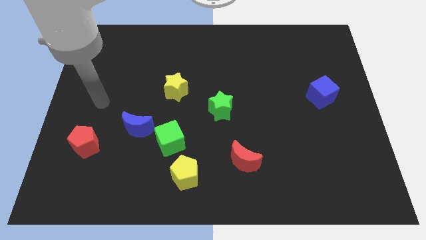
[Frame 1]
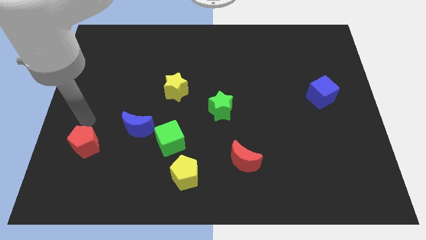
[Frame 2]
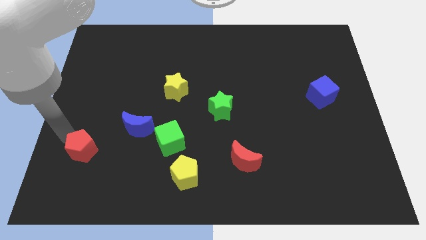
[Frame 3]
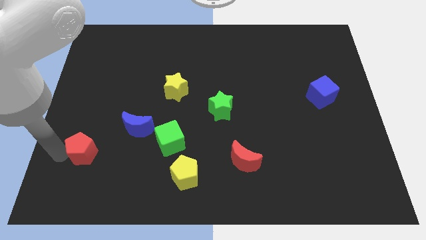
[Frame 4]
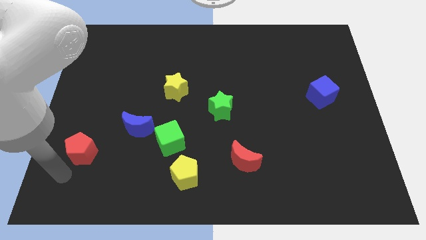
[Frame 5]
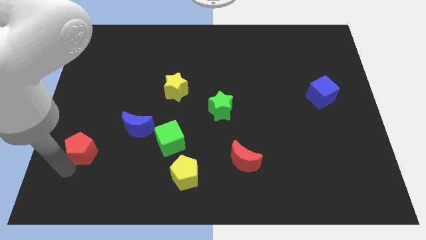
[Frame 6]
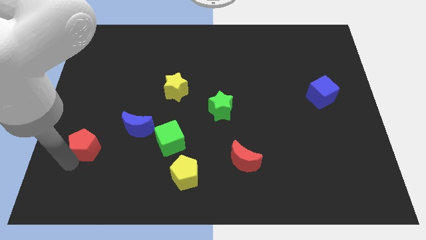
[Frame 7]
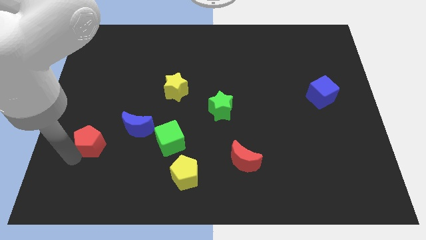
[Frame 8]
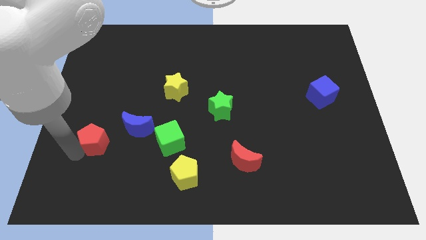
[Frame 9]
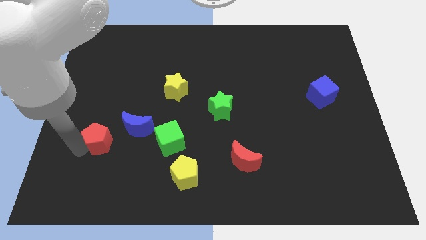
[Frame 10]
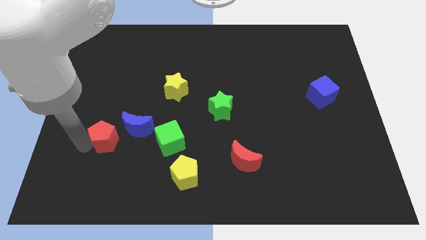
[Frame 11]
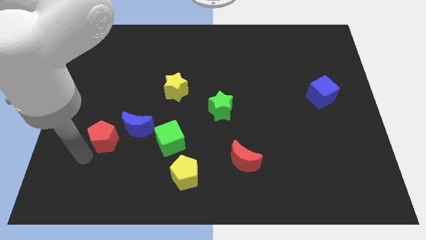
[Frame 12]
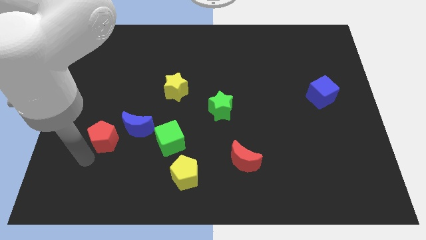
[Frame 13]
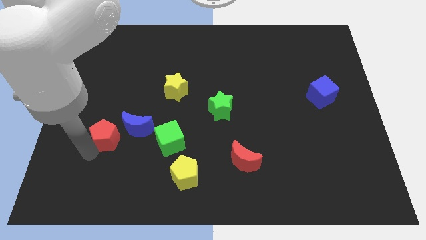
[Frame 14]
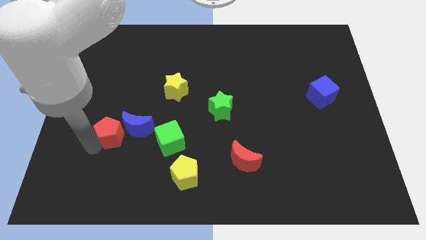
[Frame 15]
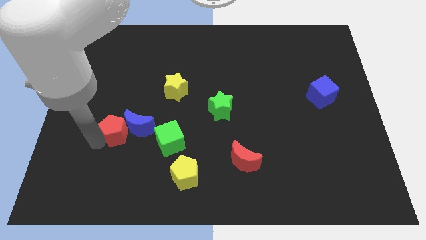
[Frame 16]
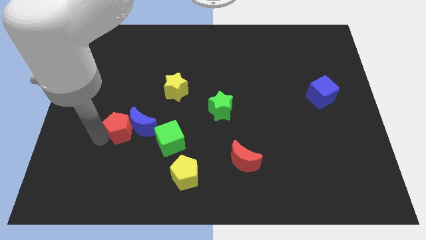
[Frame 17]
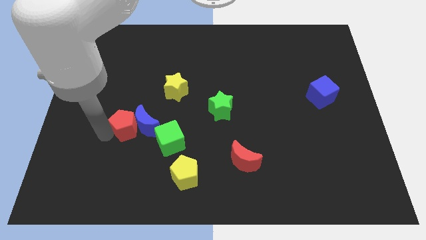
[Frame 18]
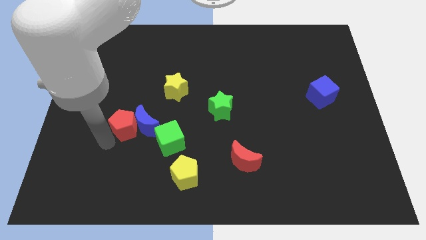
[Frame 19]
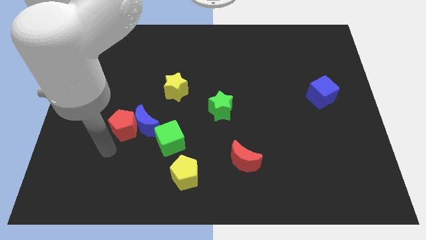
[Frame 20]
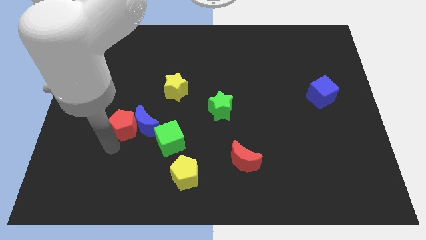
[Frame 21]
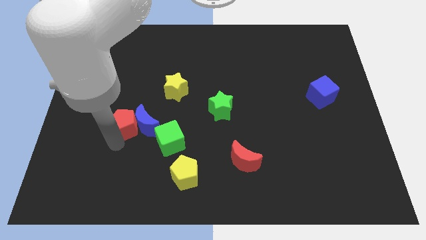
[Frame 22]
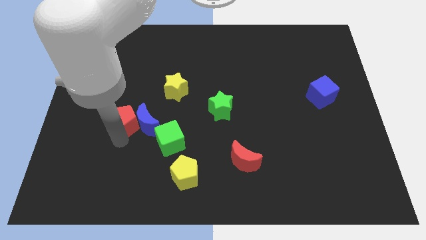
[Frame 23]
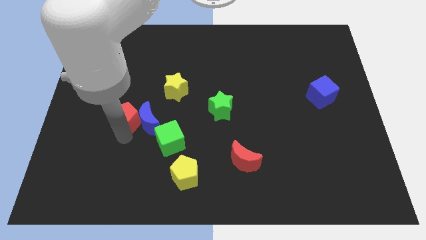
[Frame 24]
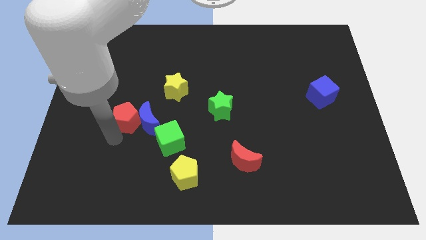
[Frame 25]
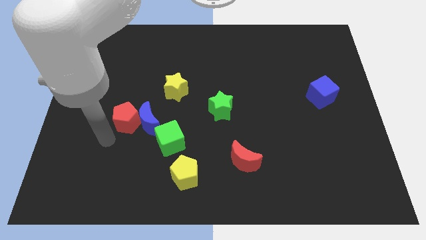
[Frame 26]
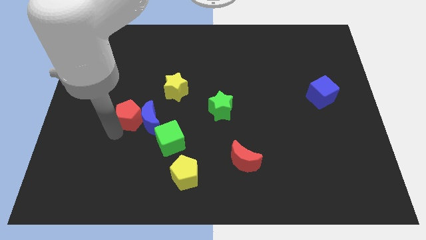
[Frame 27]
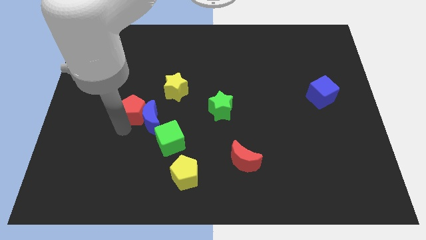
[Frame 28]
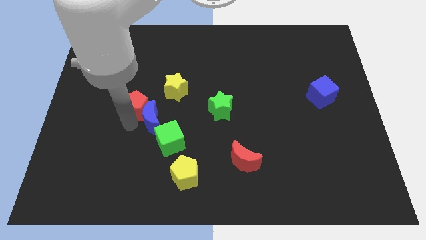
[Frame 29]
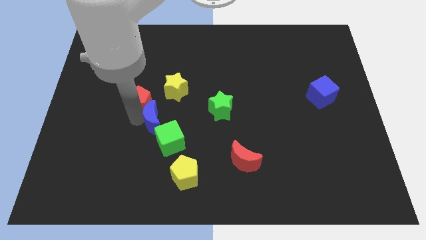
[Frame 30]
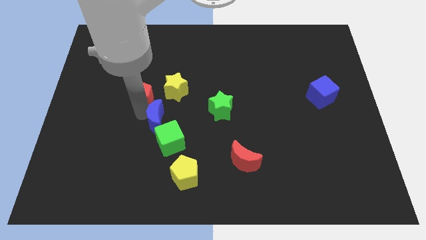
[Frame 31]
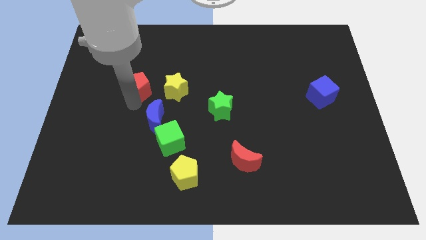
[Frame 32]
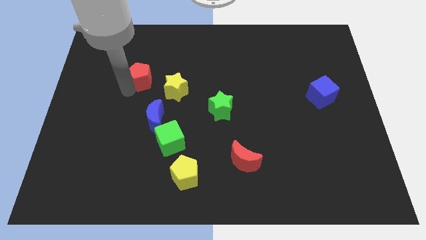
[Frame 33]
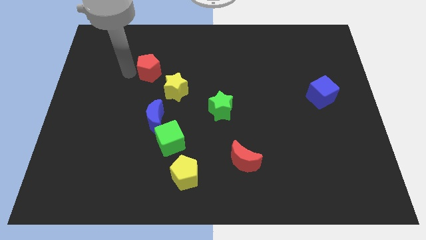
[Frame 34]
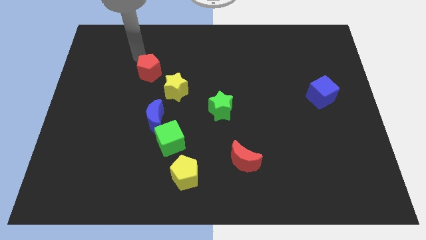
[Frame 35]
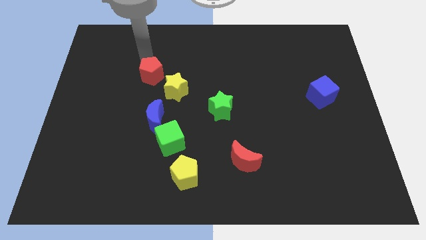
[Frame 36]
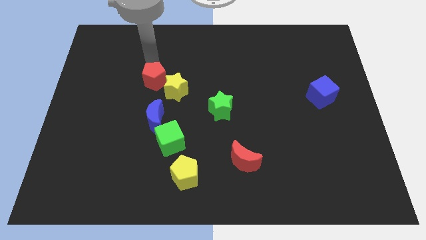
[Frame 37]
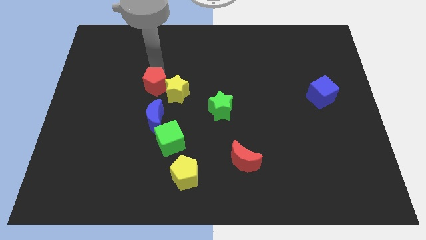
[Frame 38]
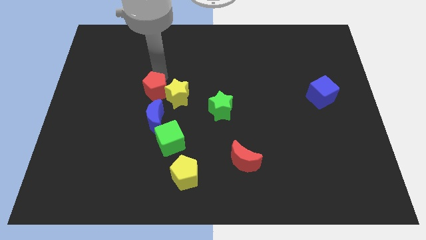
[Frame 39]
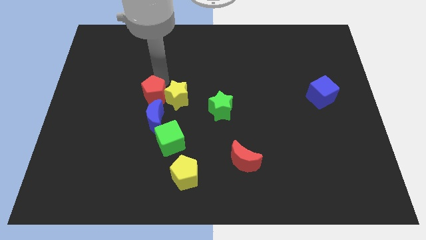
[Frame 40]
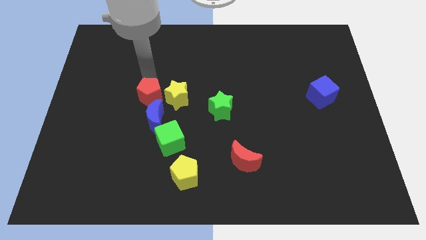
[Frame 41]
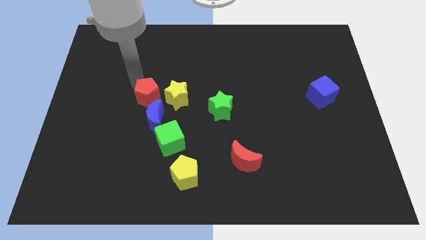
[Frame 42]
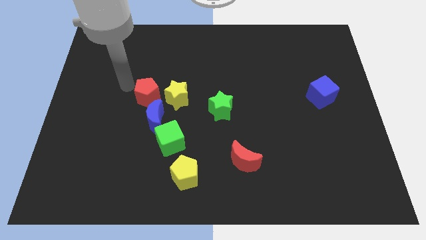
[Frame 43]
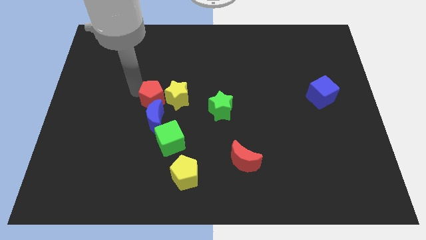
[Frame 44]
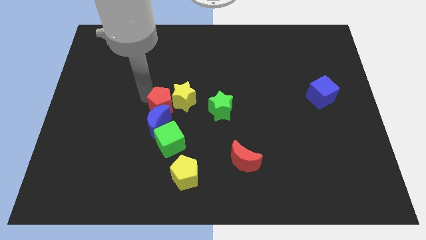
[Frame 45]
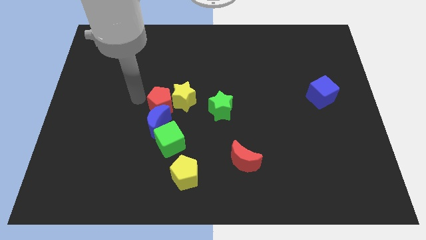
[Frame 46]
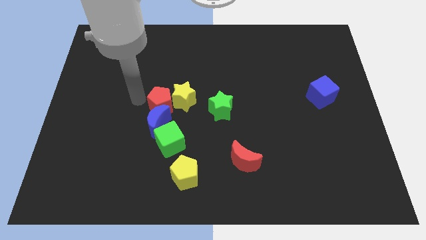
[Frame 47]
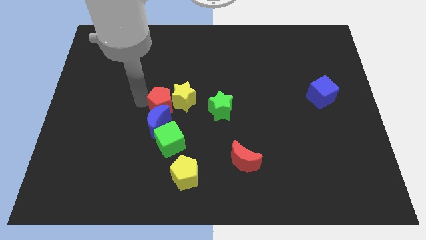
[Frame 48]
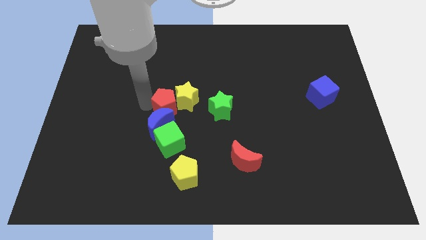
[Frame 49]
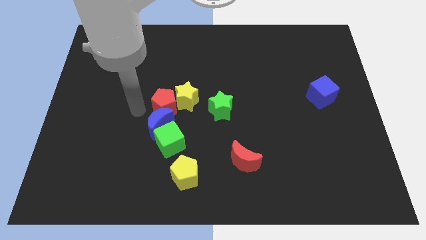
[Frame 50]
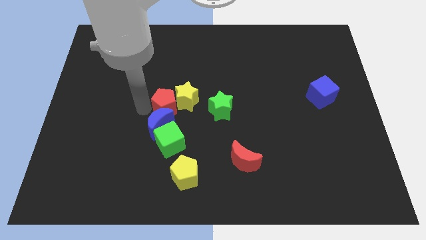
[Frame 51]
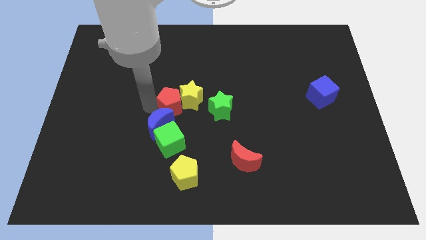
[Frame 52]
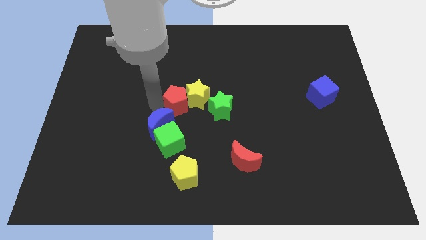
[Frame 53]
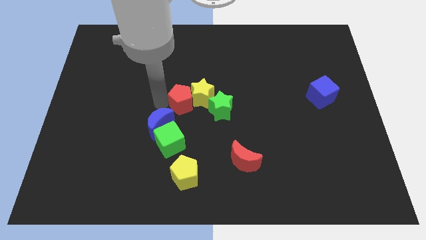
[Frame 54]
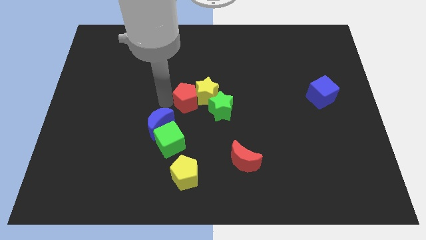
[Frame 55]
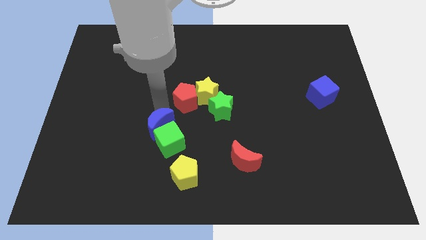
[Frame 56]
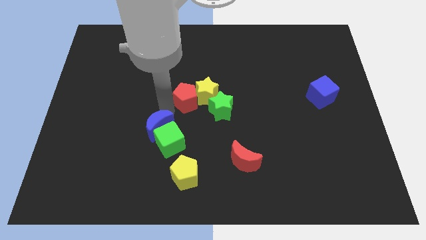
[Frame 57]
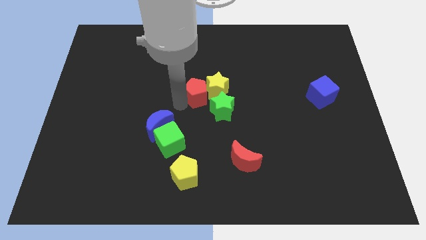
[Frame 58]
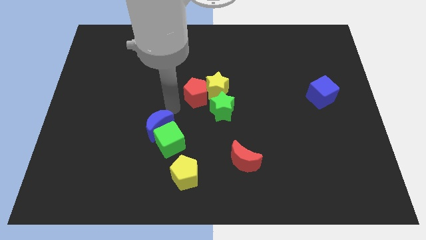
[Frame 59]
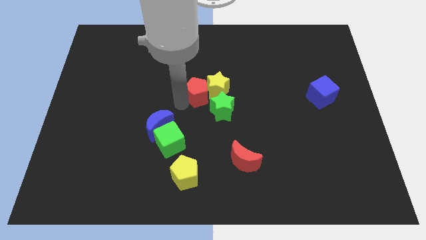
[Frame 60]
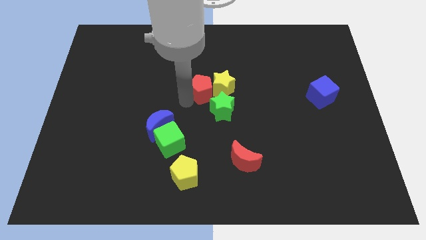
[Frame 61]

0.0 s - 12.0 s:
move the red pentagon to the top side of the green star

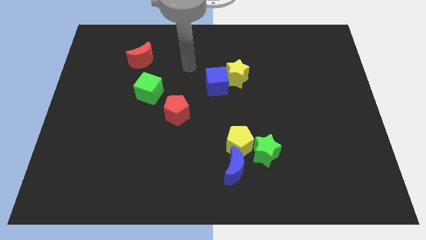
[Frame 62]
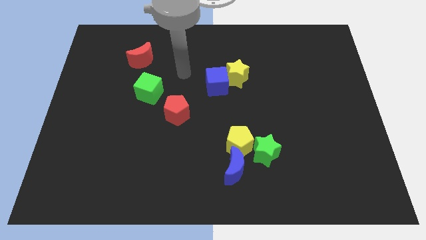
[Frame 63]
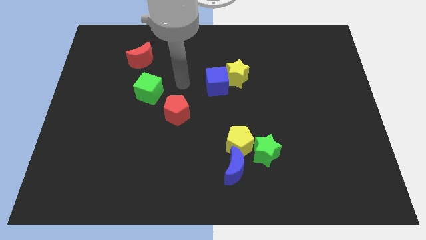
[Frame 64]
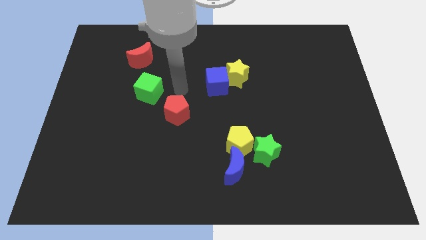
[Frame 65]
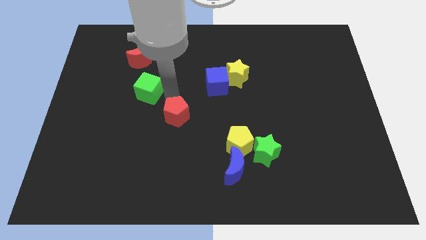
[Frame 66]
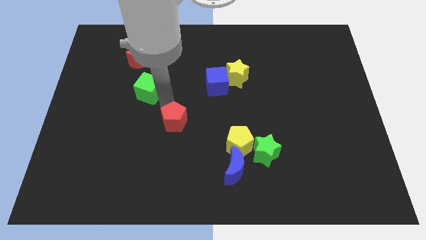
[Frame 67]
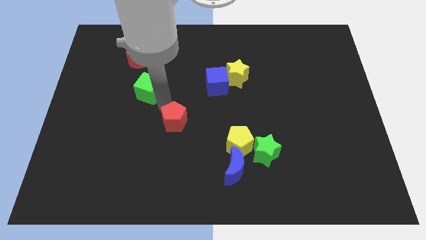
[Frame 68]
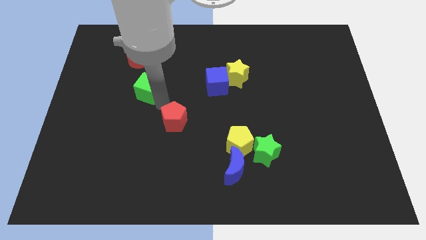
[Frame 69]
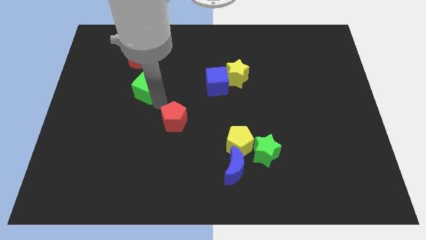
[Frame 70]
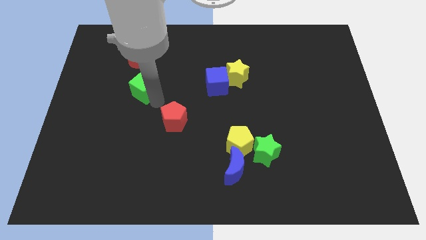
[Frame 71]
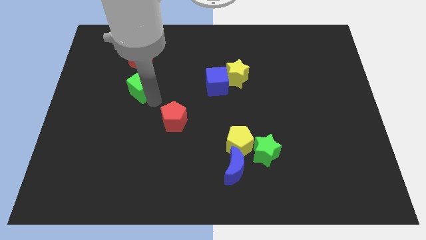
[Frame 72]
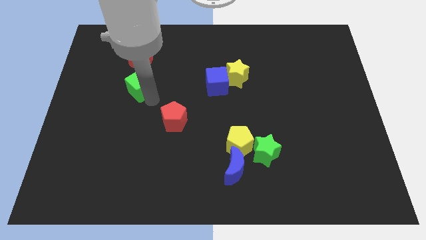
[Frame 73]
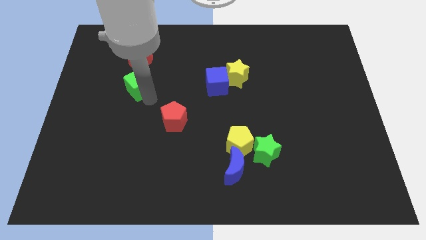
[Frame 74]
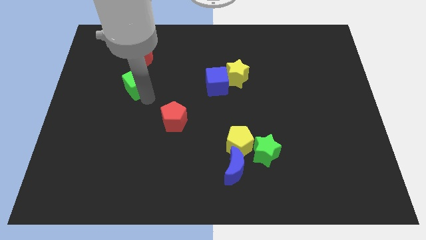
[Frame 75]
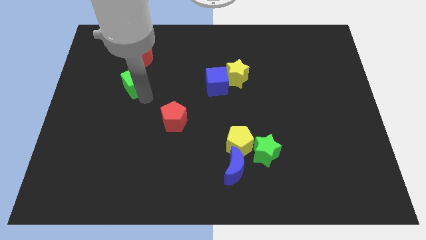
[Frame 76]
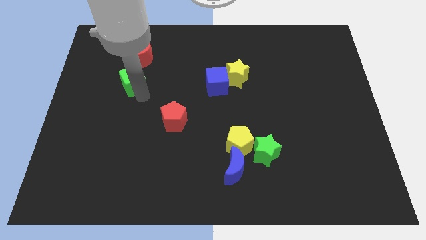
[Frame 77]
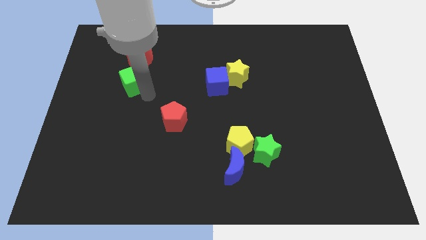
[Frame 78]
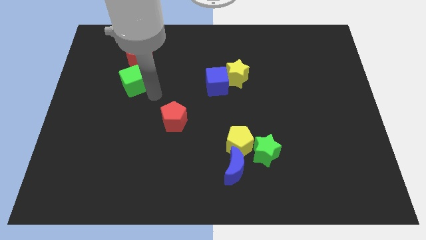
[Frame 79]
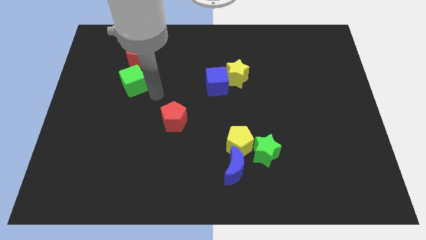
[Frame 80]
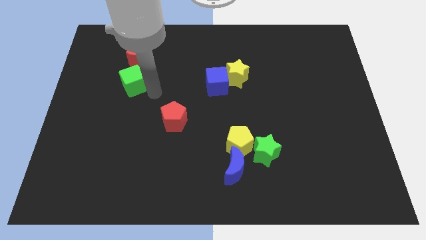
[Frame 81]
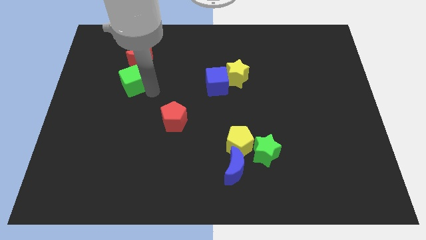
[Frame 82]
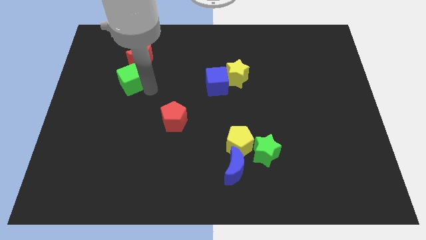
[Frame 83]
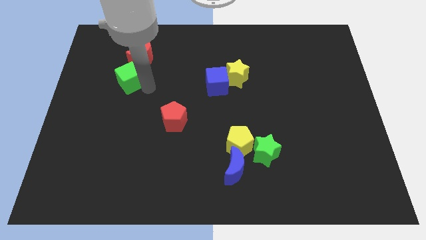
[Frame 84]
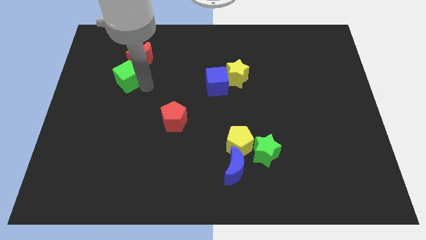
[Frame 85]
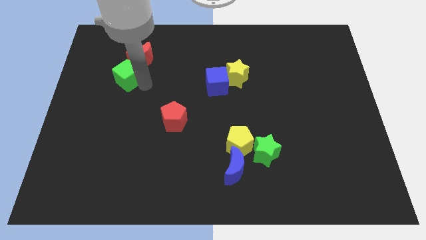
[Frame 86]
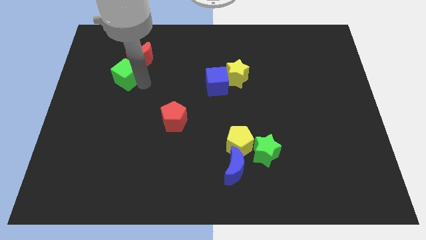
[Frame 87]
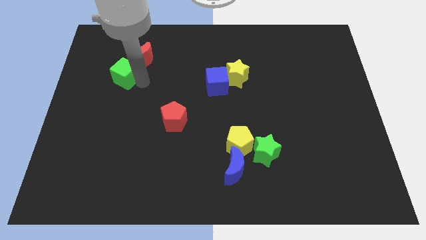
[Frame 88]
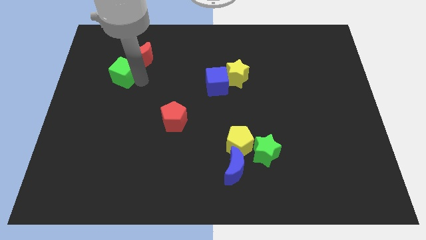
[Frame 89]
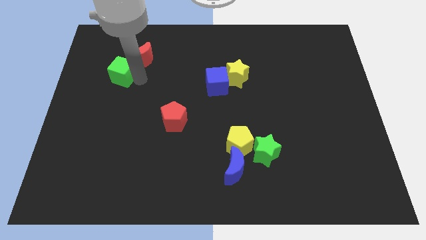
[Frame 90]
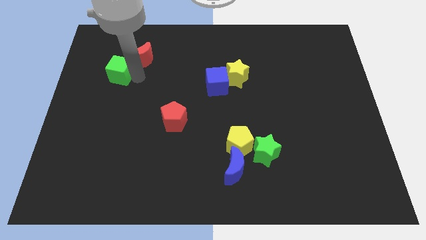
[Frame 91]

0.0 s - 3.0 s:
put the green cube left of the red moon
